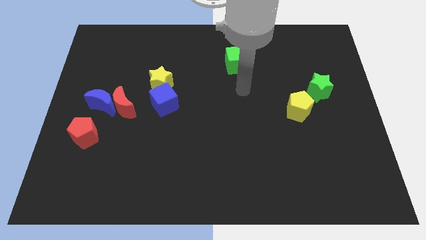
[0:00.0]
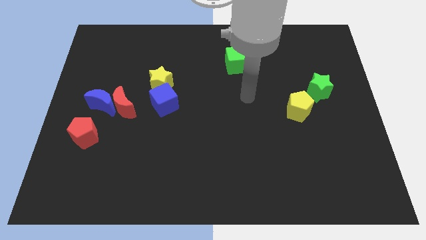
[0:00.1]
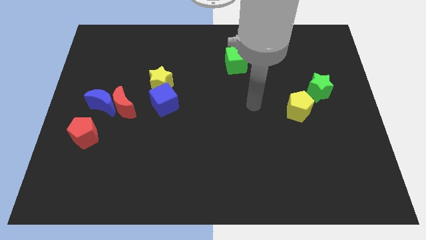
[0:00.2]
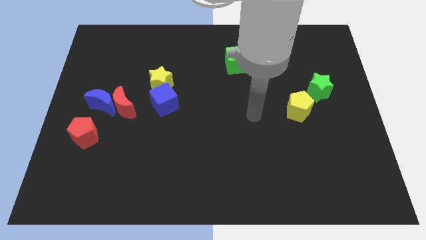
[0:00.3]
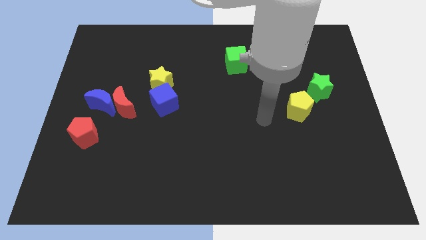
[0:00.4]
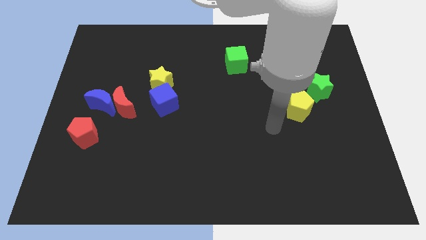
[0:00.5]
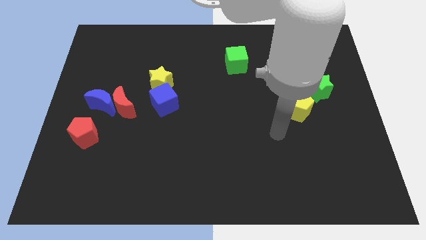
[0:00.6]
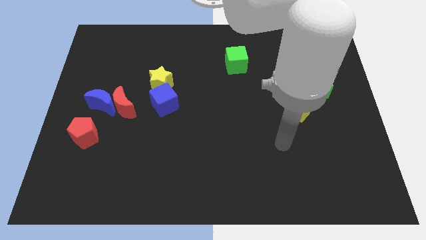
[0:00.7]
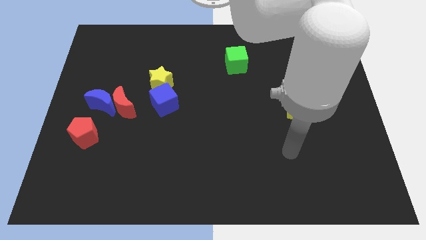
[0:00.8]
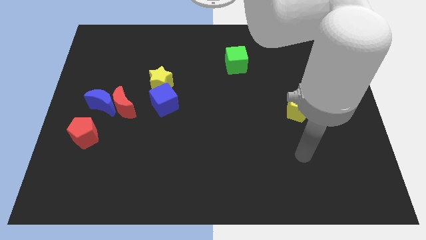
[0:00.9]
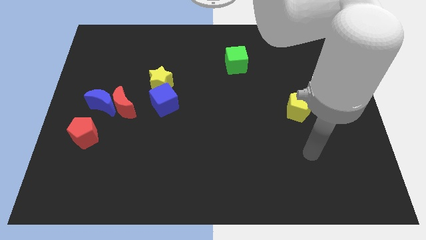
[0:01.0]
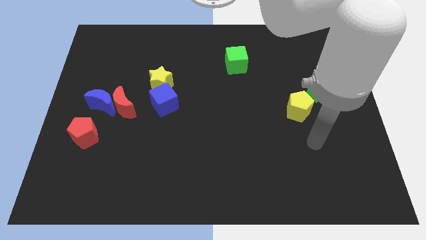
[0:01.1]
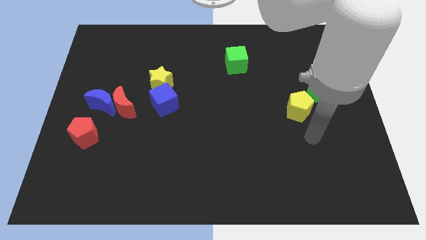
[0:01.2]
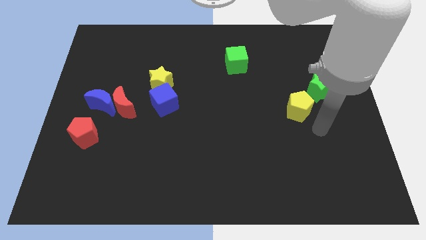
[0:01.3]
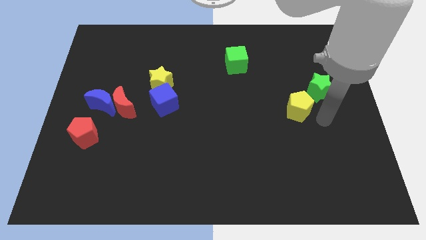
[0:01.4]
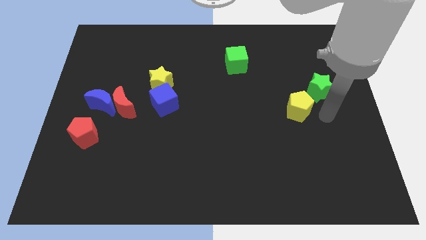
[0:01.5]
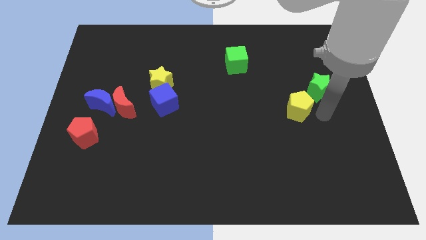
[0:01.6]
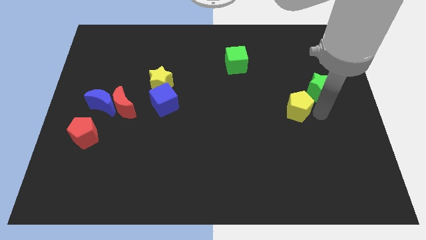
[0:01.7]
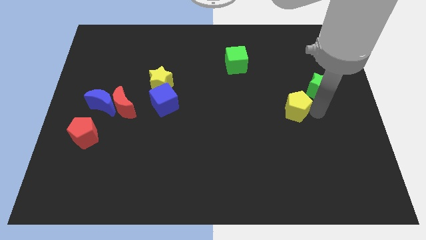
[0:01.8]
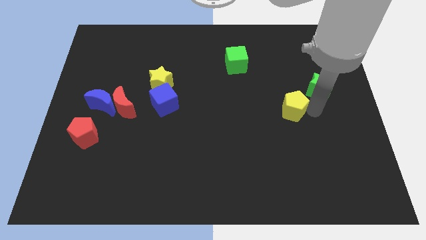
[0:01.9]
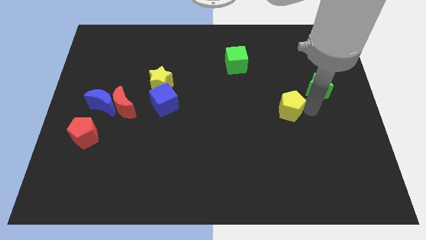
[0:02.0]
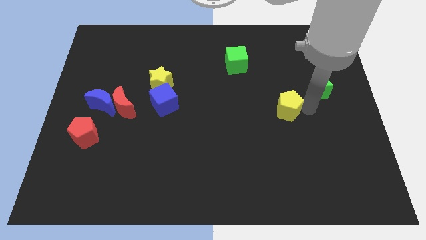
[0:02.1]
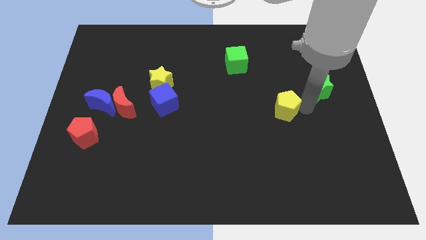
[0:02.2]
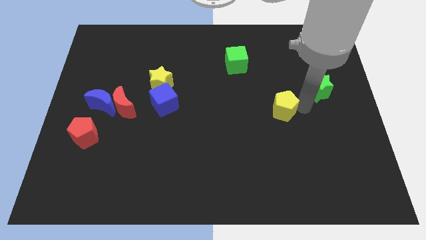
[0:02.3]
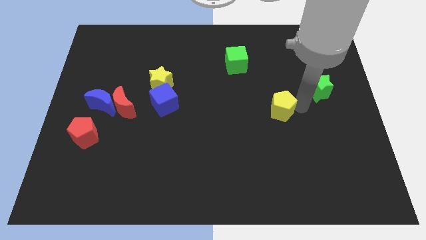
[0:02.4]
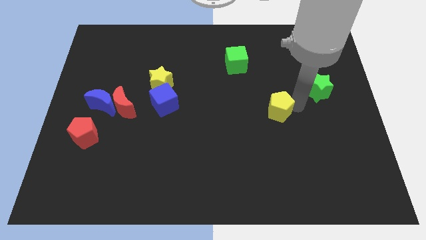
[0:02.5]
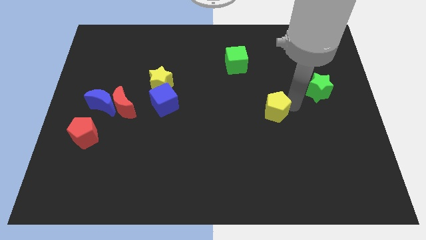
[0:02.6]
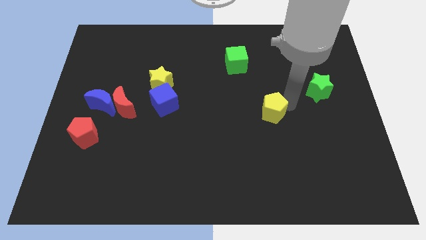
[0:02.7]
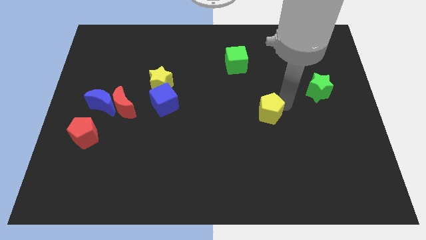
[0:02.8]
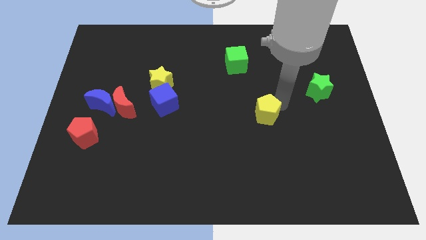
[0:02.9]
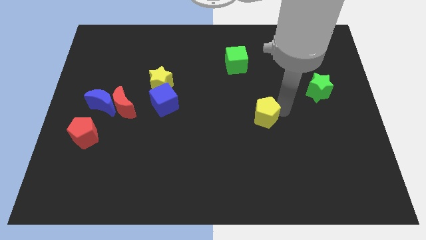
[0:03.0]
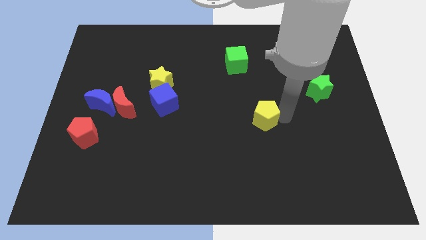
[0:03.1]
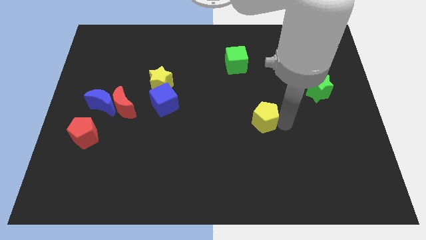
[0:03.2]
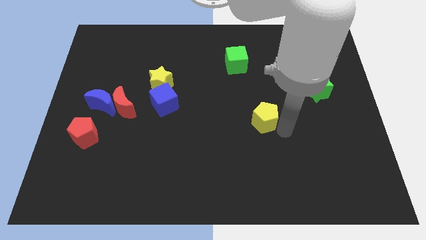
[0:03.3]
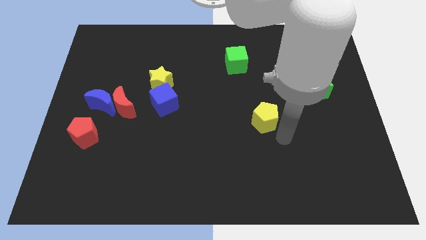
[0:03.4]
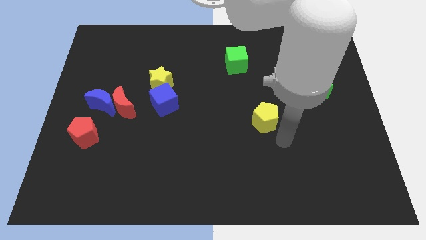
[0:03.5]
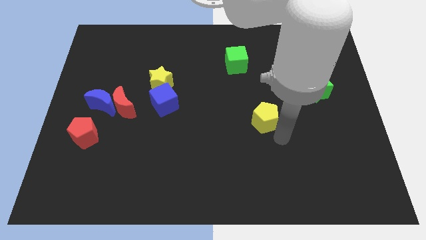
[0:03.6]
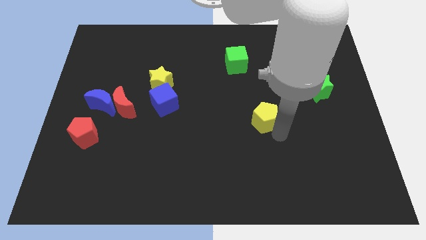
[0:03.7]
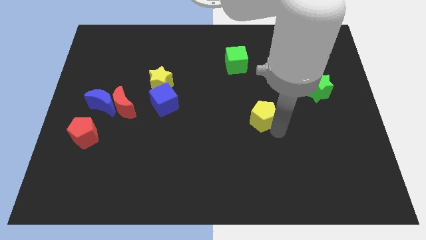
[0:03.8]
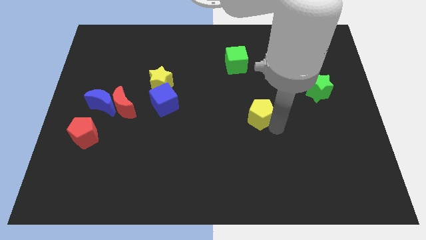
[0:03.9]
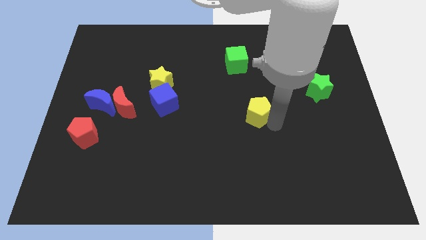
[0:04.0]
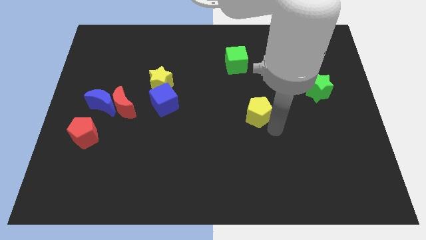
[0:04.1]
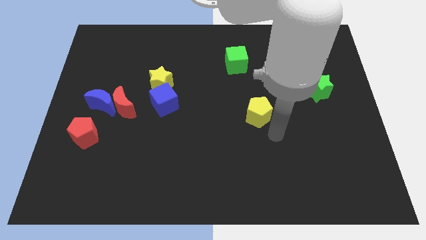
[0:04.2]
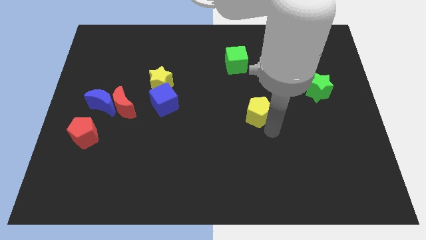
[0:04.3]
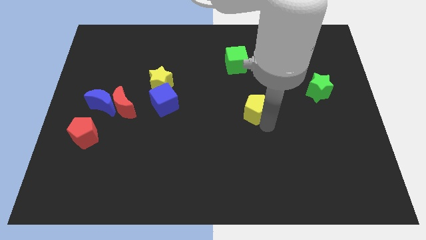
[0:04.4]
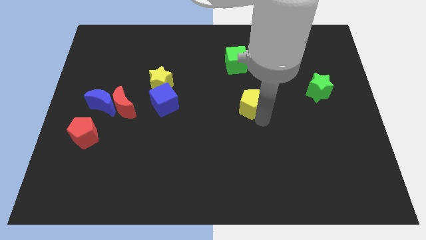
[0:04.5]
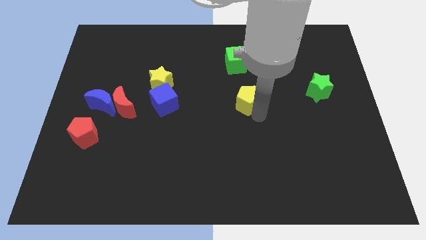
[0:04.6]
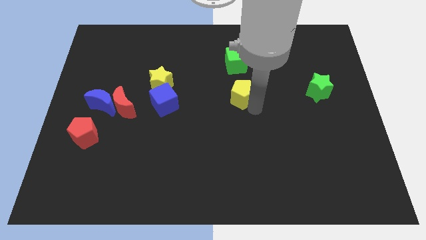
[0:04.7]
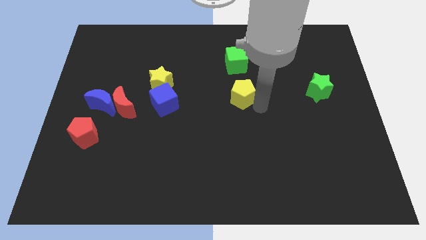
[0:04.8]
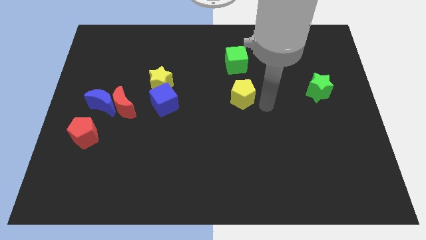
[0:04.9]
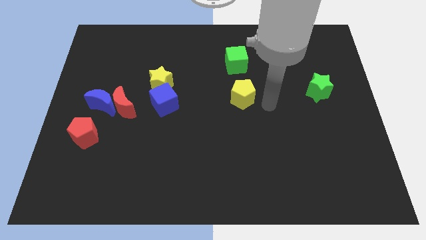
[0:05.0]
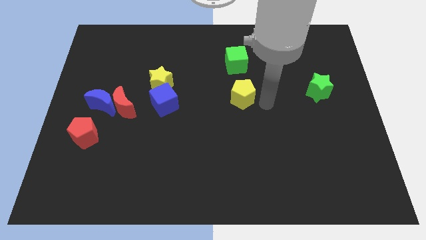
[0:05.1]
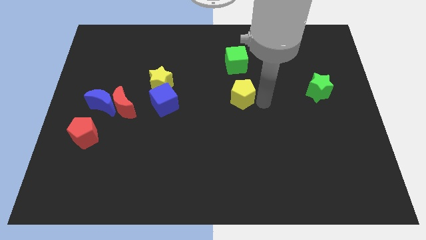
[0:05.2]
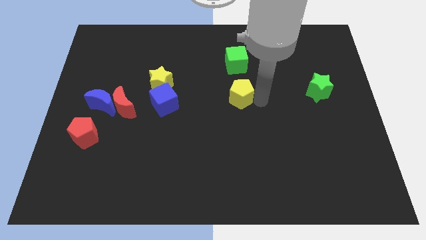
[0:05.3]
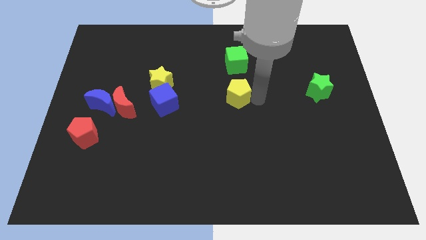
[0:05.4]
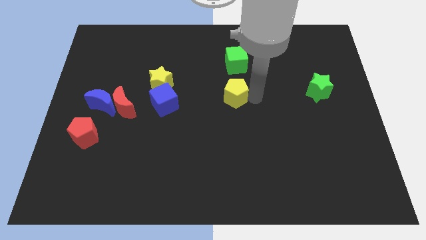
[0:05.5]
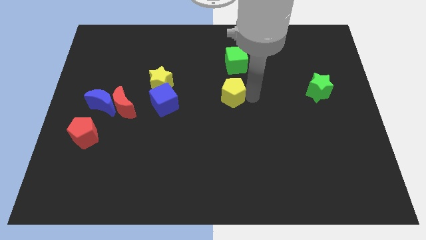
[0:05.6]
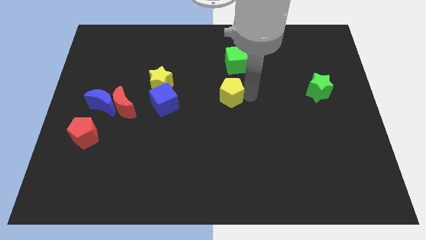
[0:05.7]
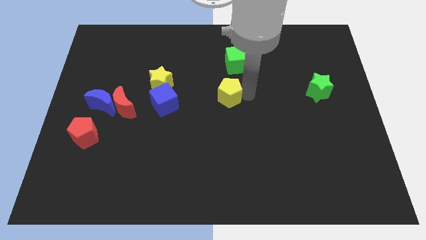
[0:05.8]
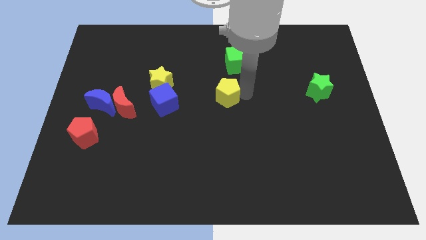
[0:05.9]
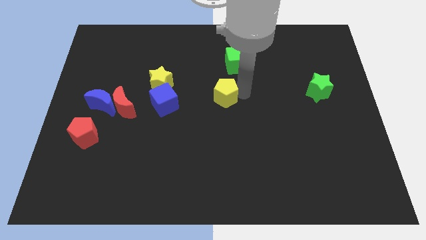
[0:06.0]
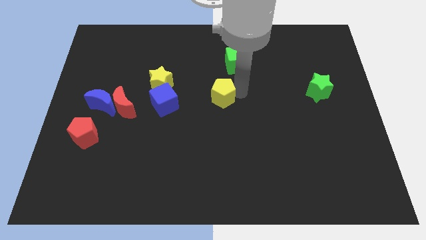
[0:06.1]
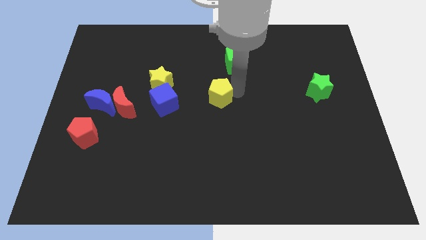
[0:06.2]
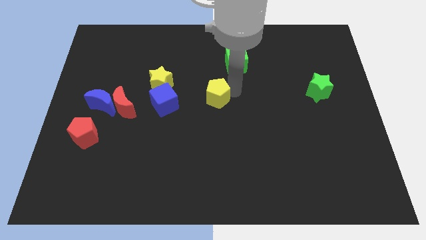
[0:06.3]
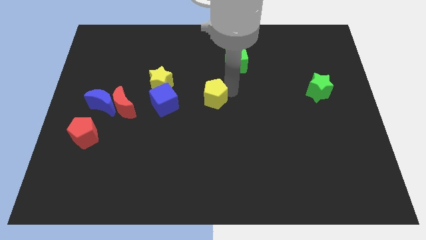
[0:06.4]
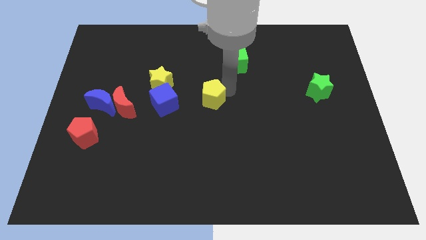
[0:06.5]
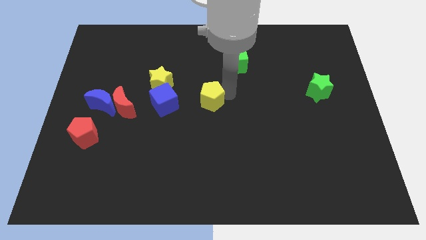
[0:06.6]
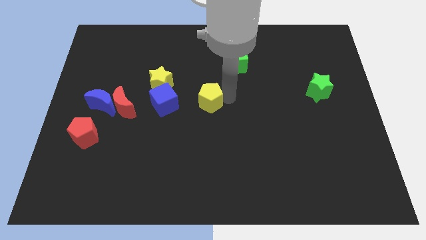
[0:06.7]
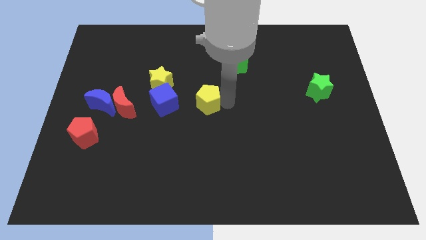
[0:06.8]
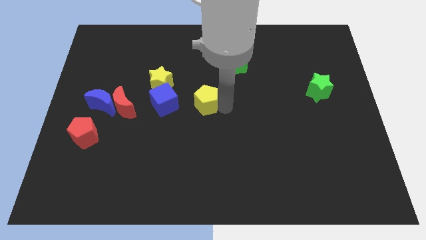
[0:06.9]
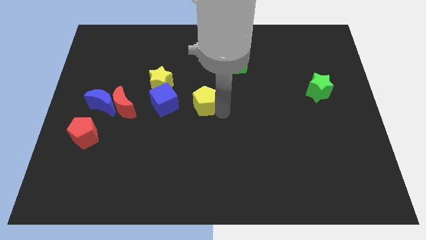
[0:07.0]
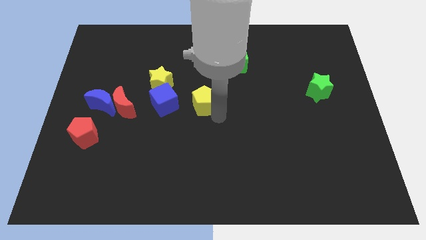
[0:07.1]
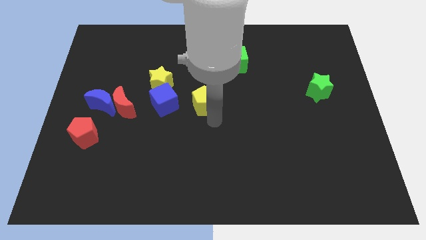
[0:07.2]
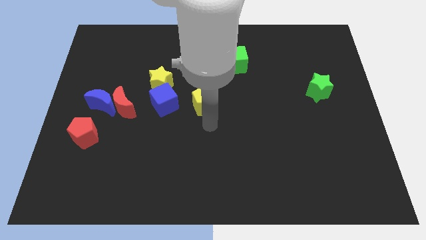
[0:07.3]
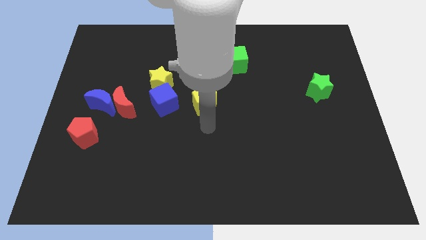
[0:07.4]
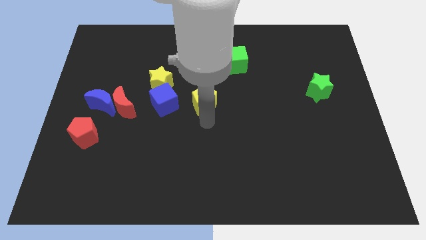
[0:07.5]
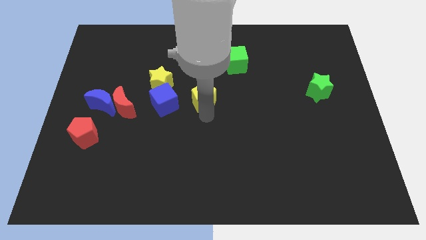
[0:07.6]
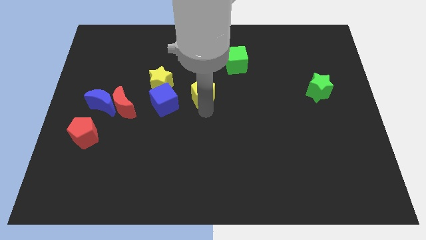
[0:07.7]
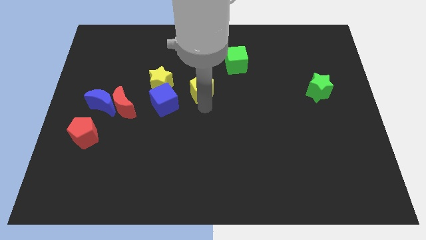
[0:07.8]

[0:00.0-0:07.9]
slide the yellow pentagon to the top right side of the blue cube

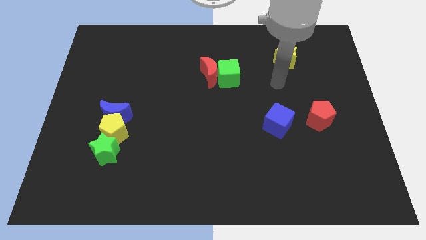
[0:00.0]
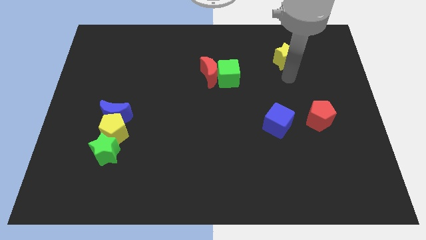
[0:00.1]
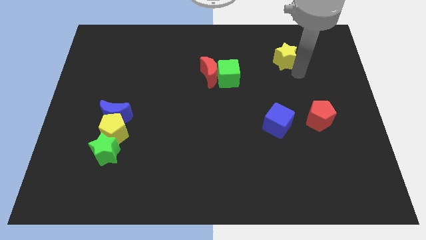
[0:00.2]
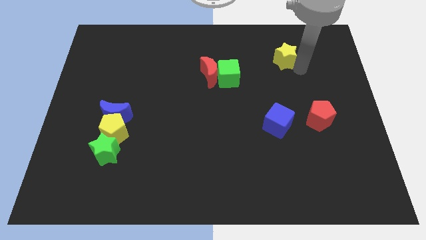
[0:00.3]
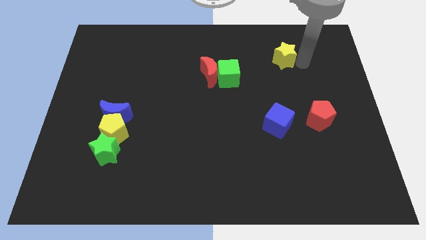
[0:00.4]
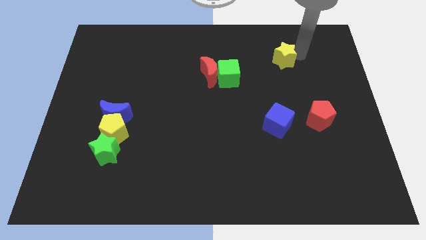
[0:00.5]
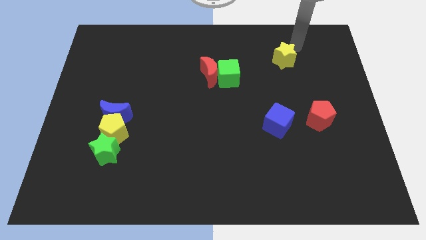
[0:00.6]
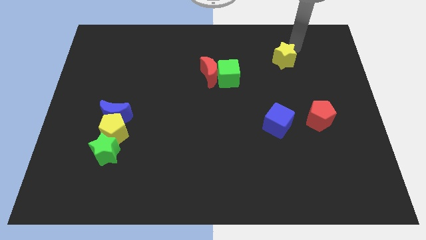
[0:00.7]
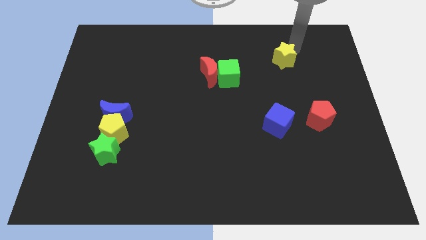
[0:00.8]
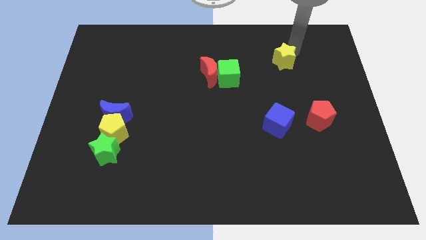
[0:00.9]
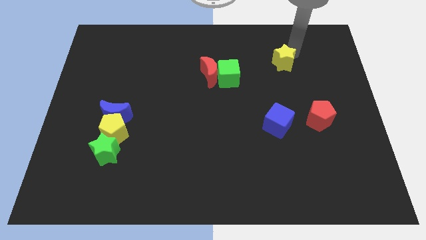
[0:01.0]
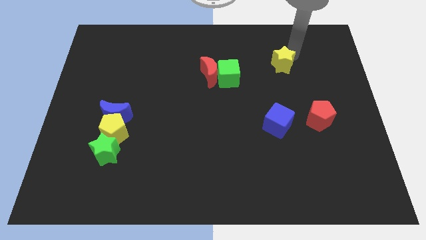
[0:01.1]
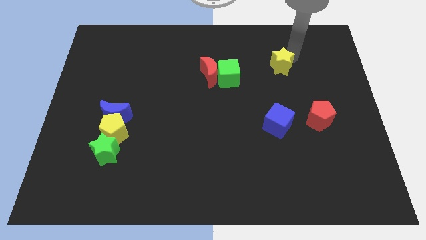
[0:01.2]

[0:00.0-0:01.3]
slide the yellow star just right of the green cube
